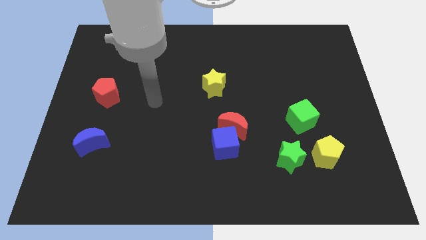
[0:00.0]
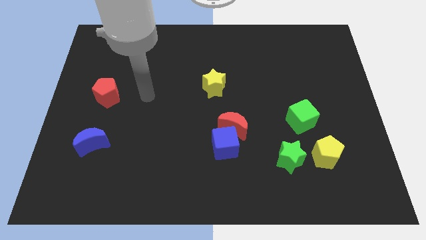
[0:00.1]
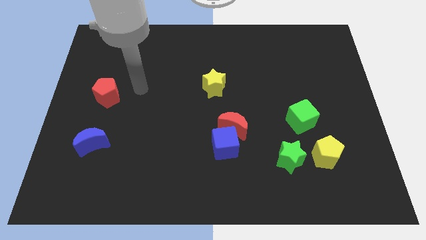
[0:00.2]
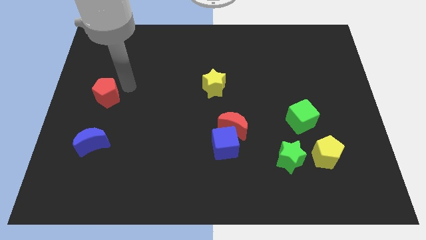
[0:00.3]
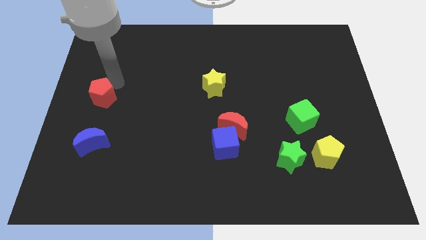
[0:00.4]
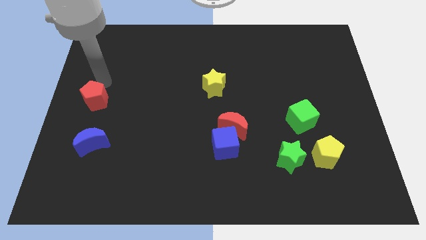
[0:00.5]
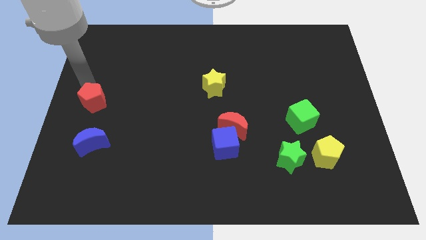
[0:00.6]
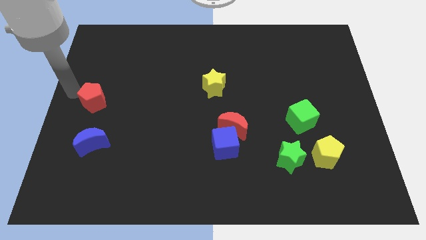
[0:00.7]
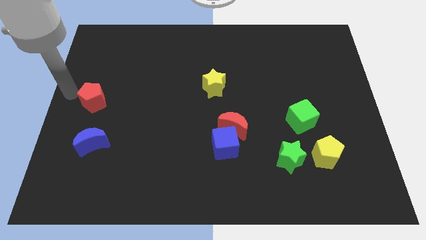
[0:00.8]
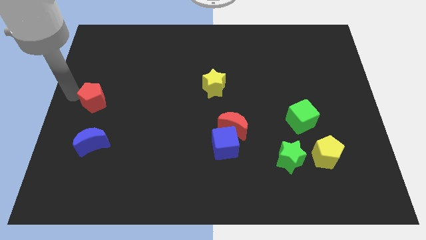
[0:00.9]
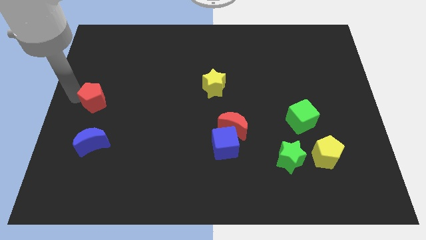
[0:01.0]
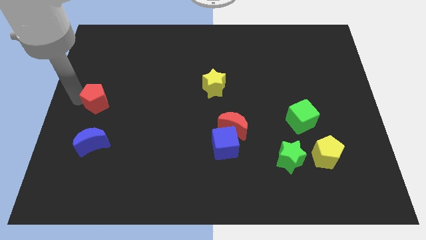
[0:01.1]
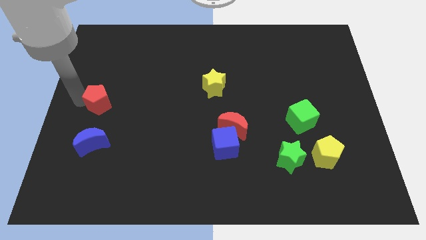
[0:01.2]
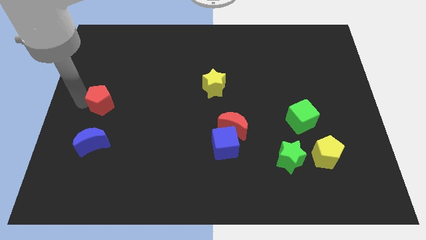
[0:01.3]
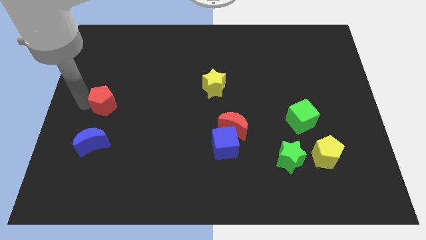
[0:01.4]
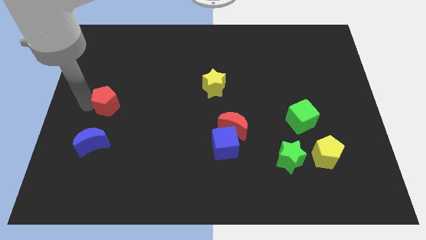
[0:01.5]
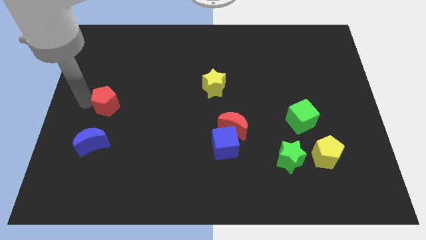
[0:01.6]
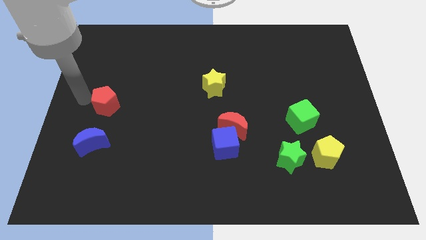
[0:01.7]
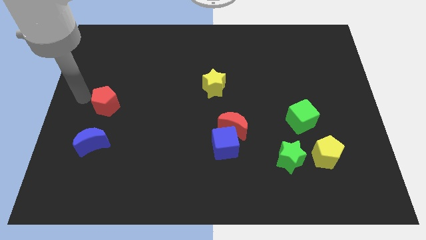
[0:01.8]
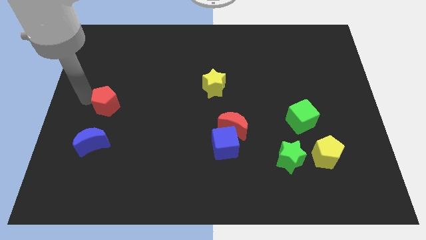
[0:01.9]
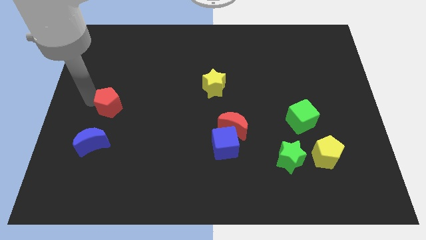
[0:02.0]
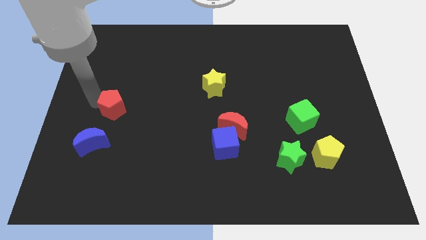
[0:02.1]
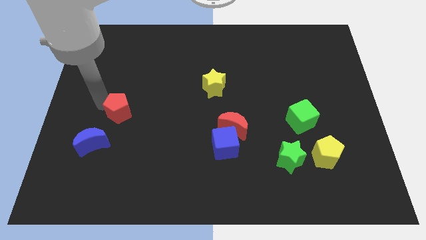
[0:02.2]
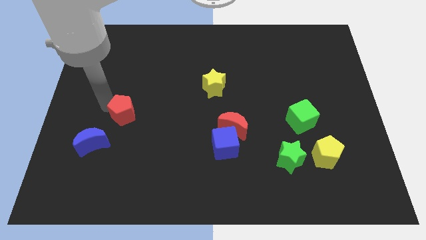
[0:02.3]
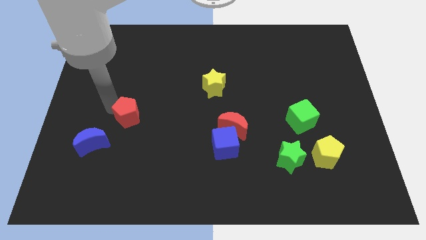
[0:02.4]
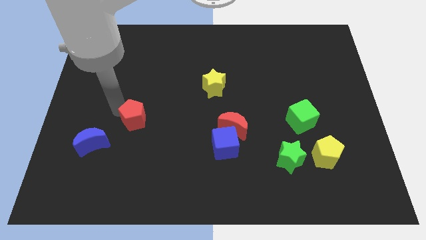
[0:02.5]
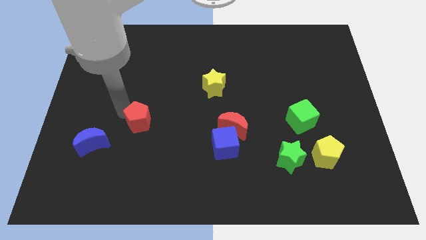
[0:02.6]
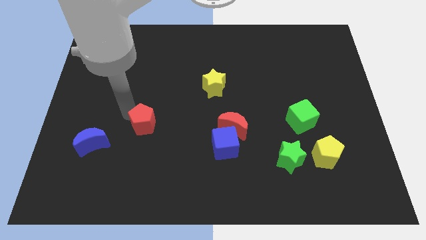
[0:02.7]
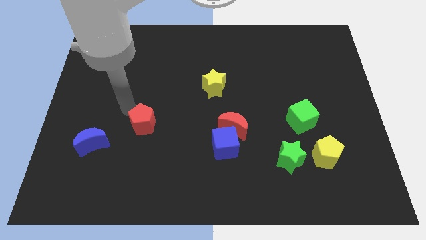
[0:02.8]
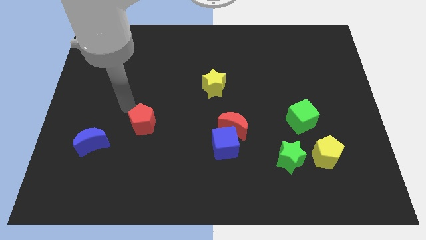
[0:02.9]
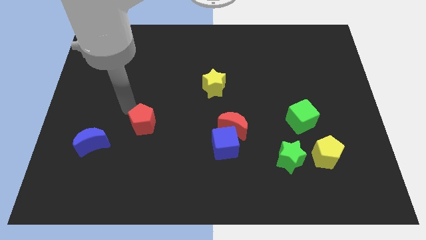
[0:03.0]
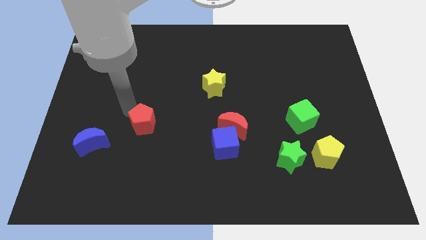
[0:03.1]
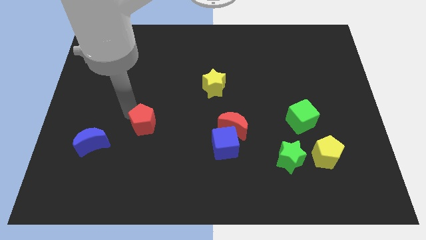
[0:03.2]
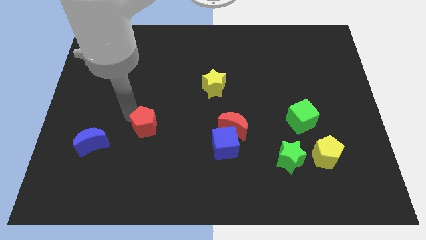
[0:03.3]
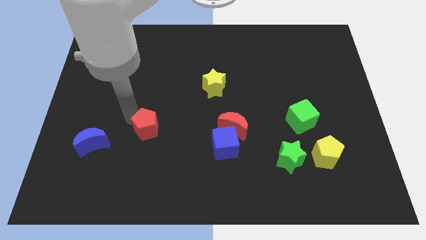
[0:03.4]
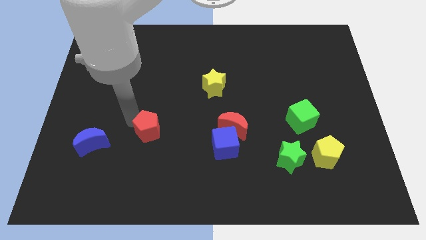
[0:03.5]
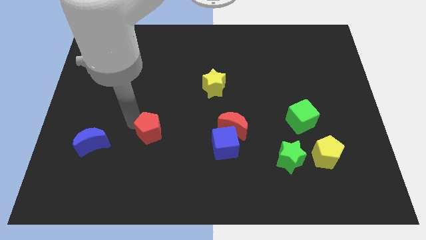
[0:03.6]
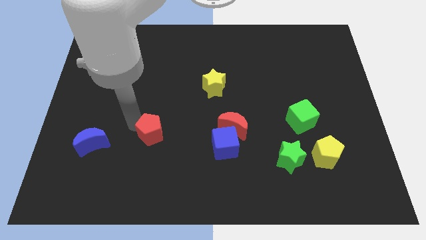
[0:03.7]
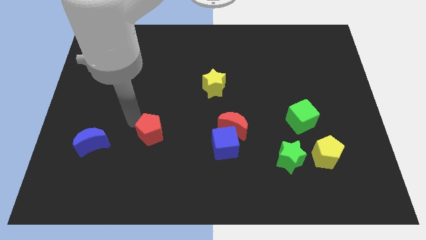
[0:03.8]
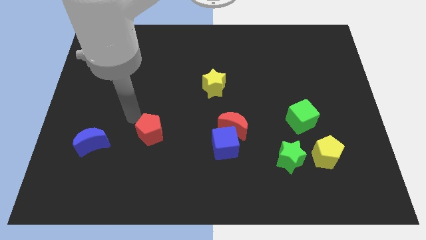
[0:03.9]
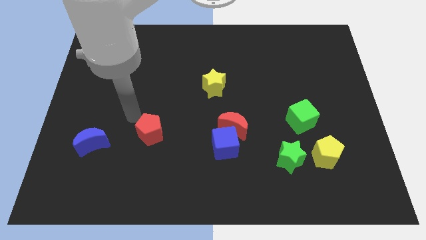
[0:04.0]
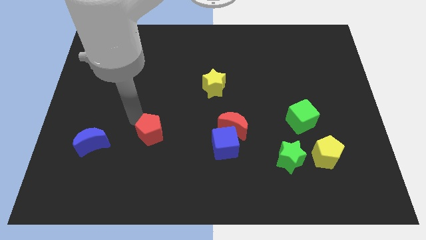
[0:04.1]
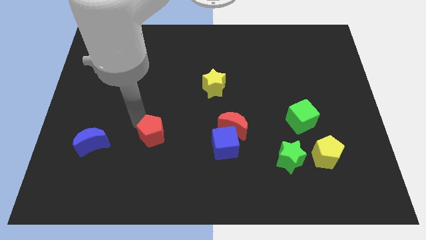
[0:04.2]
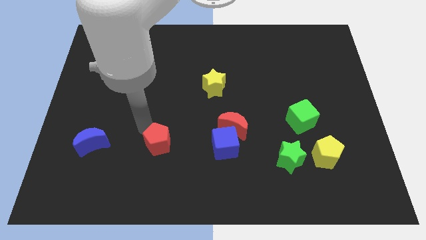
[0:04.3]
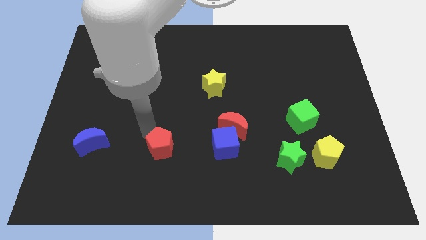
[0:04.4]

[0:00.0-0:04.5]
slide the red pentagon down and right diagonally

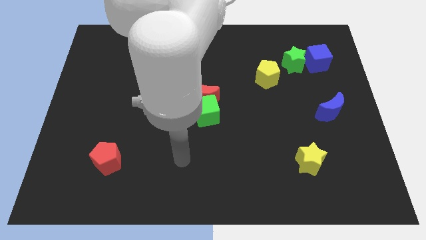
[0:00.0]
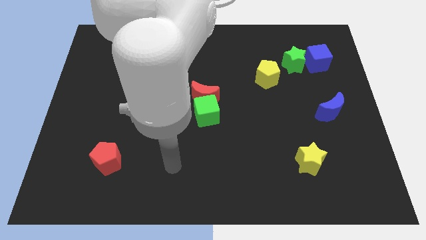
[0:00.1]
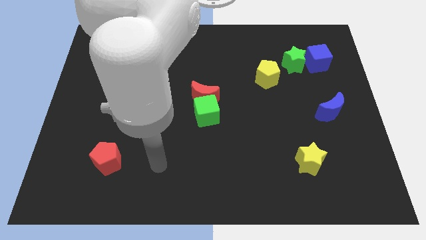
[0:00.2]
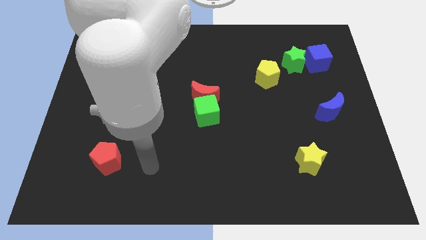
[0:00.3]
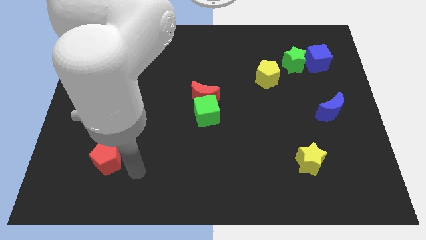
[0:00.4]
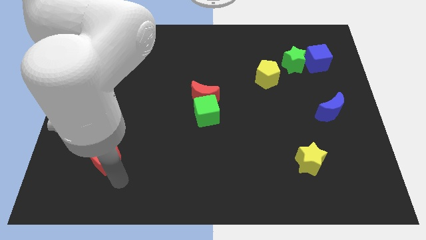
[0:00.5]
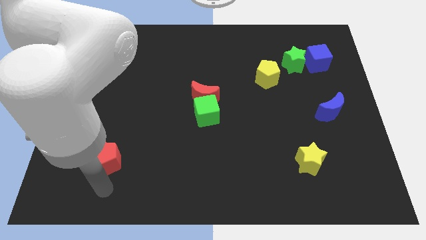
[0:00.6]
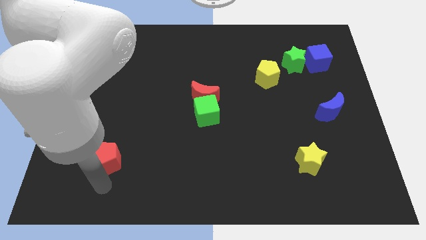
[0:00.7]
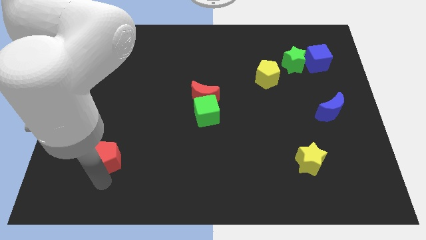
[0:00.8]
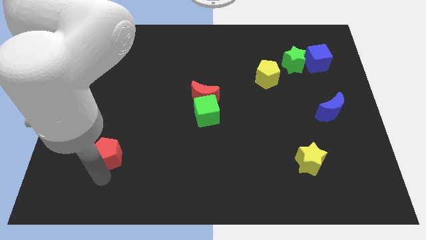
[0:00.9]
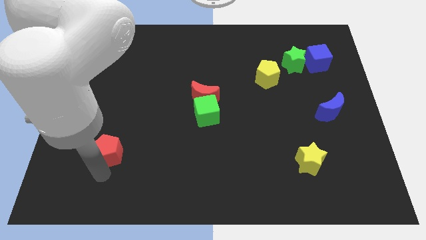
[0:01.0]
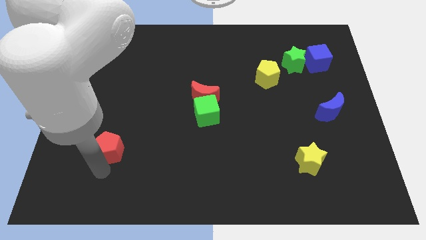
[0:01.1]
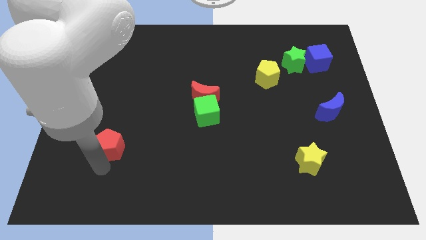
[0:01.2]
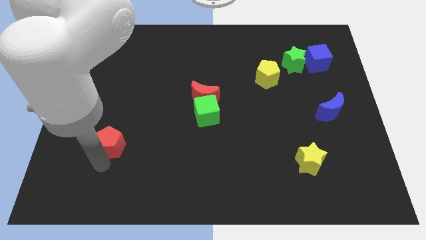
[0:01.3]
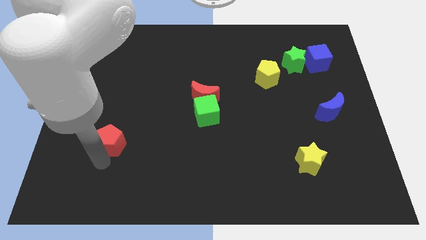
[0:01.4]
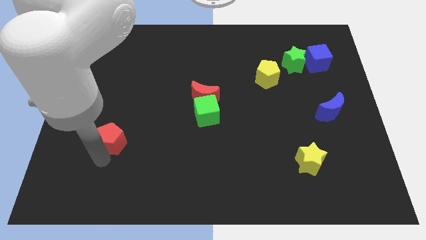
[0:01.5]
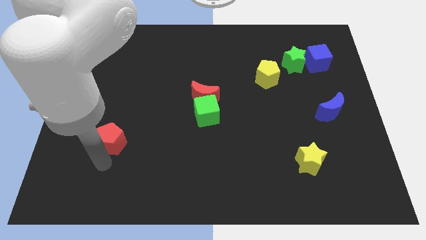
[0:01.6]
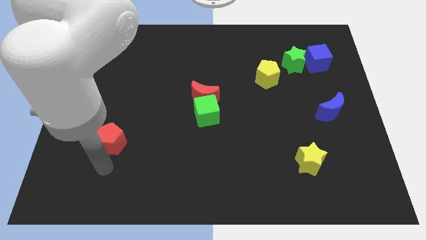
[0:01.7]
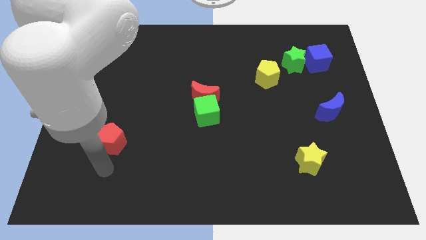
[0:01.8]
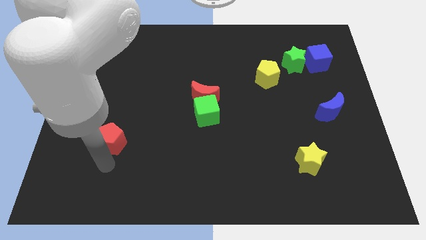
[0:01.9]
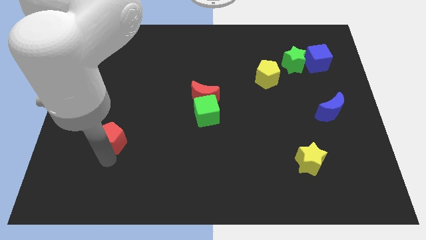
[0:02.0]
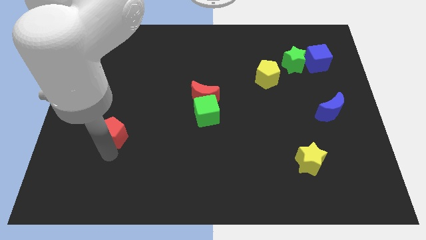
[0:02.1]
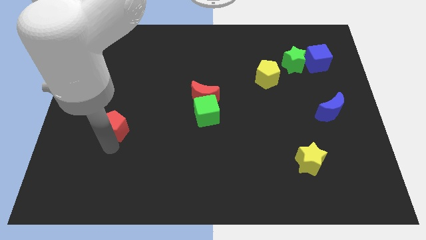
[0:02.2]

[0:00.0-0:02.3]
slide the red pentagon a little up

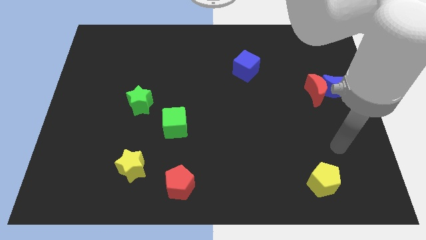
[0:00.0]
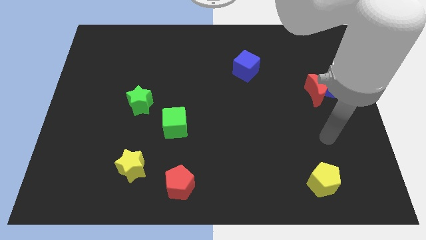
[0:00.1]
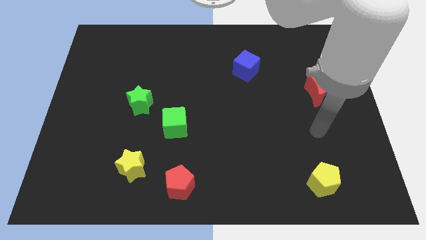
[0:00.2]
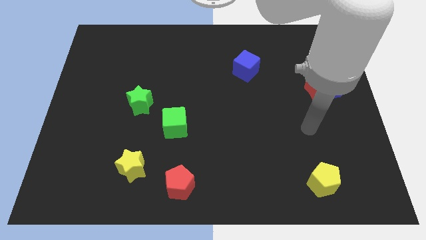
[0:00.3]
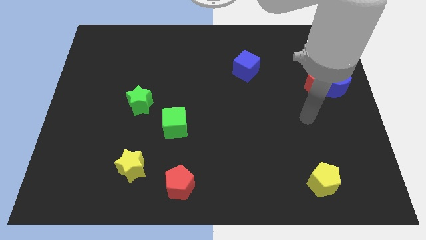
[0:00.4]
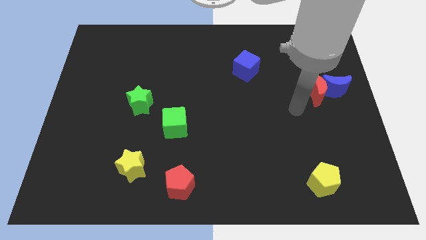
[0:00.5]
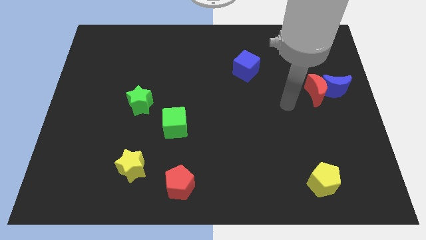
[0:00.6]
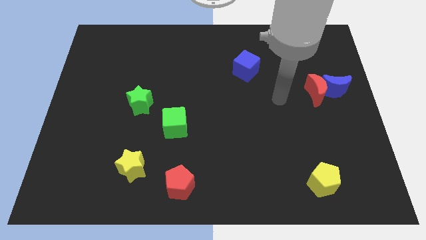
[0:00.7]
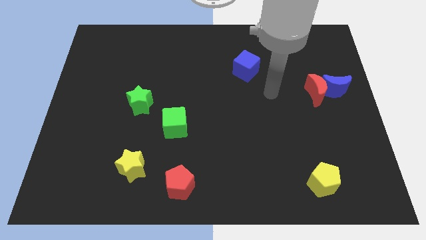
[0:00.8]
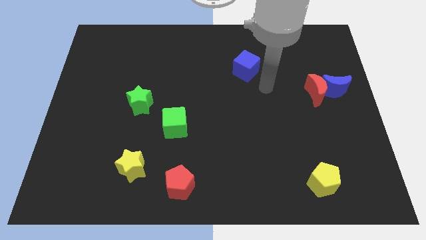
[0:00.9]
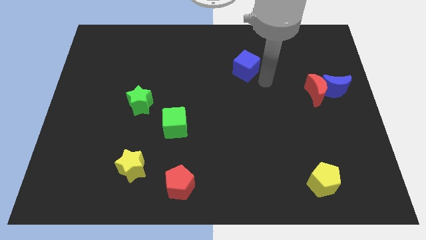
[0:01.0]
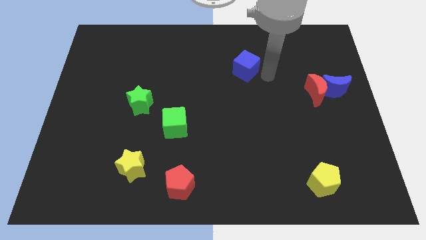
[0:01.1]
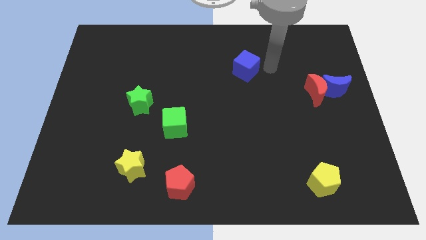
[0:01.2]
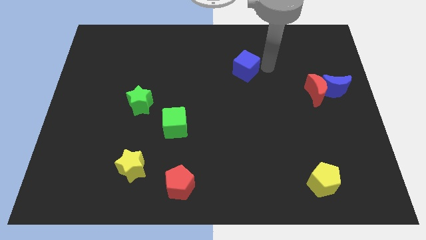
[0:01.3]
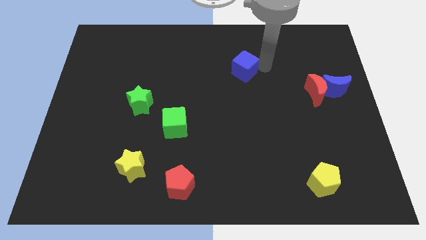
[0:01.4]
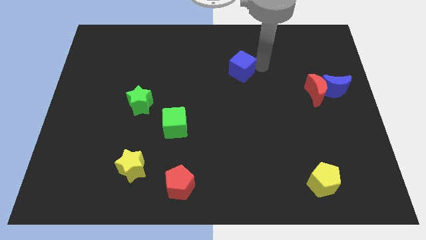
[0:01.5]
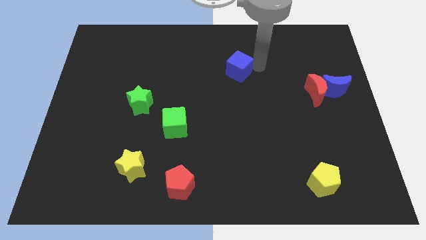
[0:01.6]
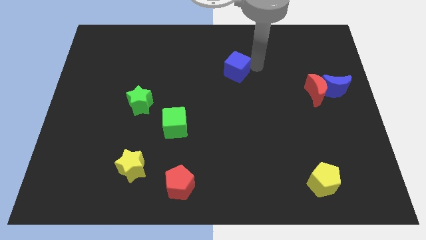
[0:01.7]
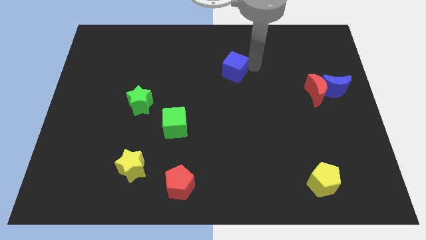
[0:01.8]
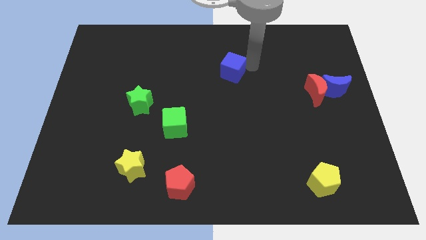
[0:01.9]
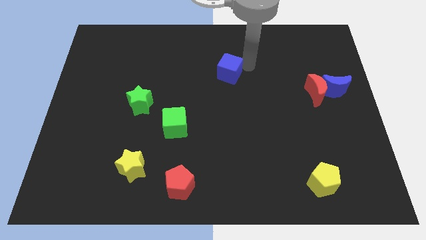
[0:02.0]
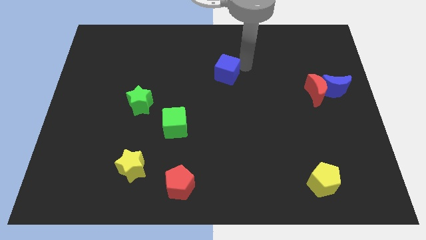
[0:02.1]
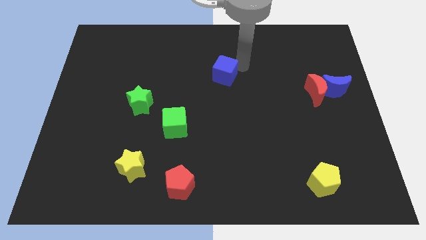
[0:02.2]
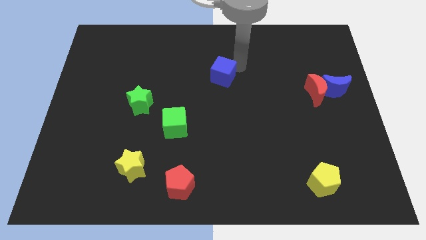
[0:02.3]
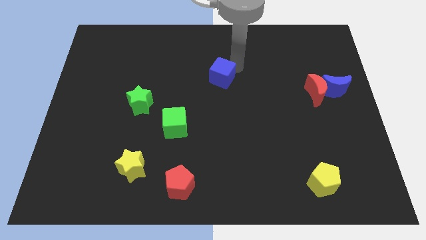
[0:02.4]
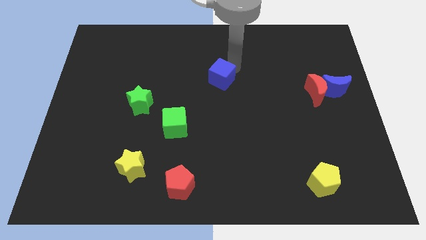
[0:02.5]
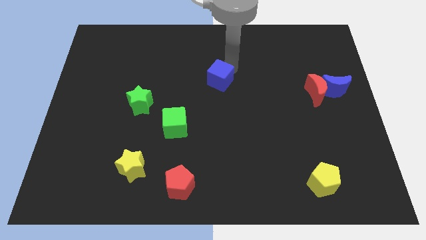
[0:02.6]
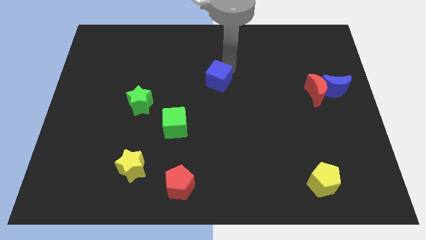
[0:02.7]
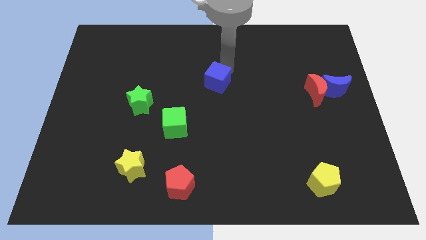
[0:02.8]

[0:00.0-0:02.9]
push the blue cube left slightly
